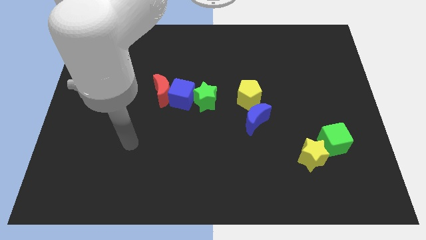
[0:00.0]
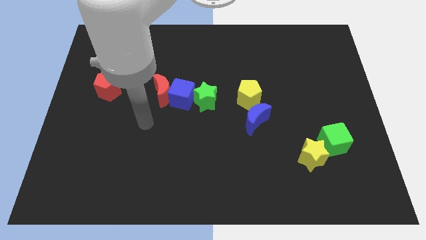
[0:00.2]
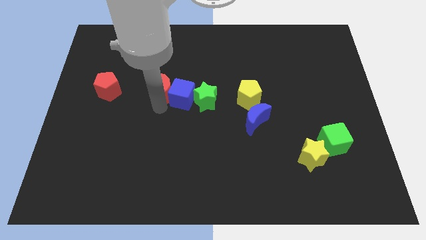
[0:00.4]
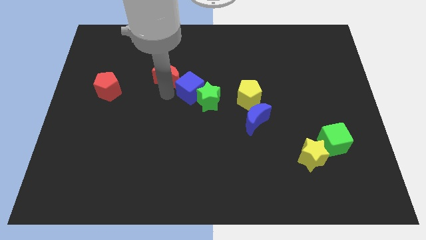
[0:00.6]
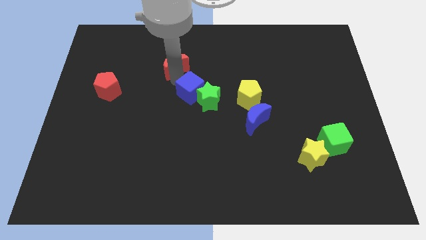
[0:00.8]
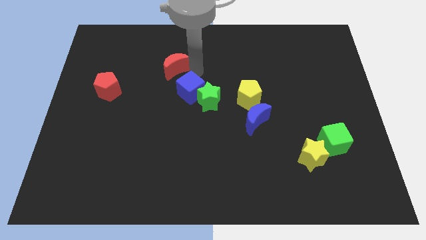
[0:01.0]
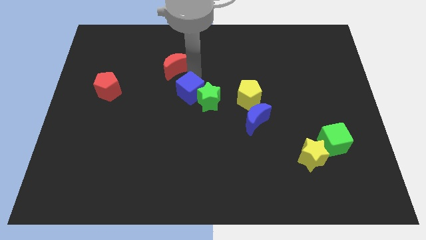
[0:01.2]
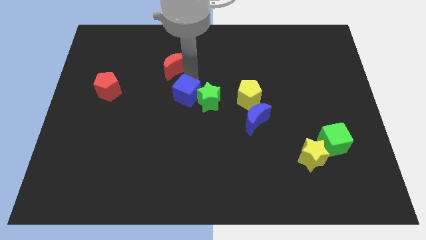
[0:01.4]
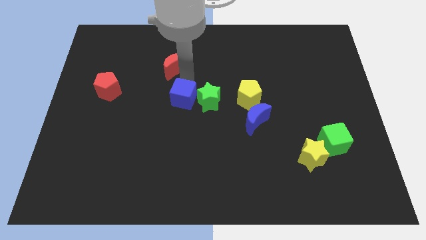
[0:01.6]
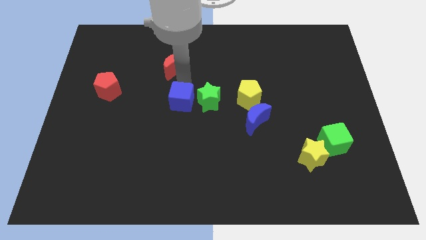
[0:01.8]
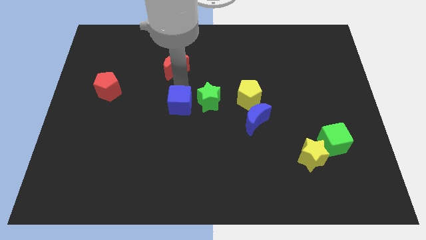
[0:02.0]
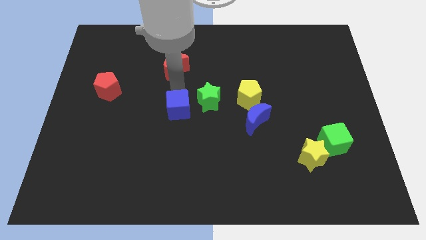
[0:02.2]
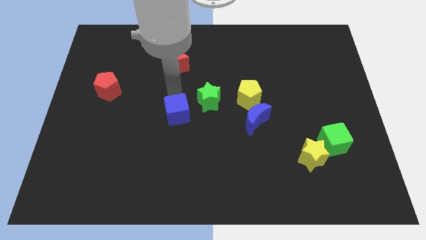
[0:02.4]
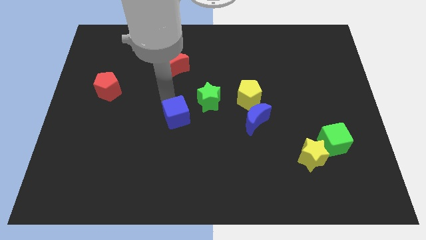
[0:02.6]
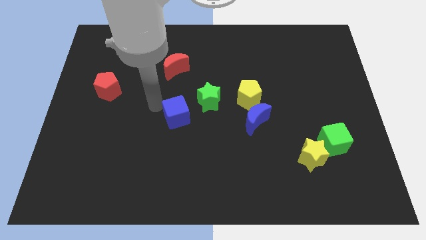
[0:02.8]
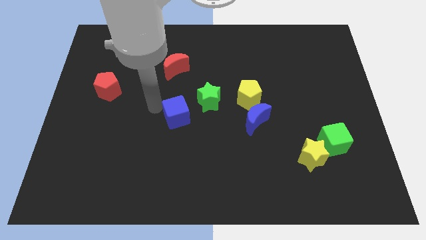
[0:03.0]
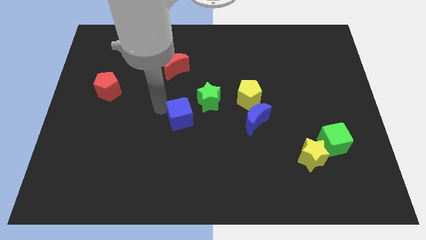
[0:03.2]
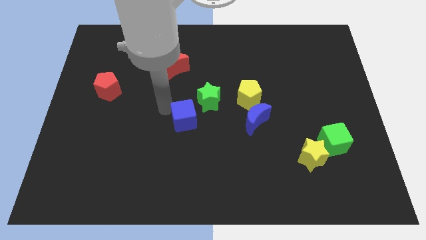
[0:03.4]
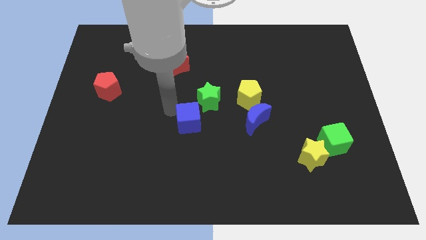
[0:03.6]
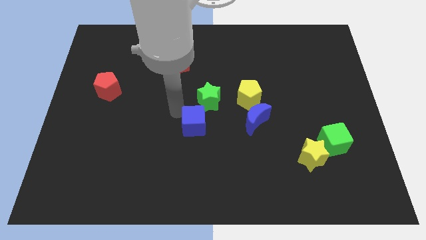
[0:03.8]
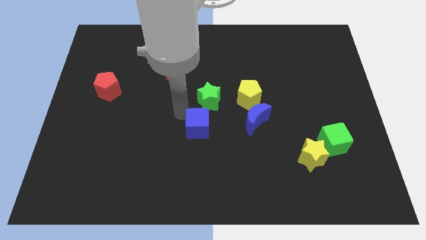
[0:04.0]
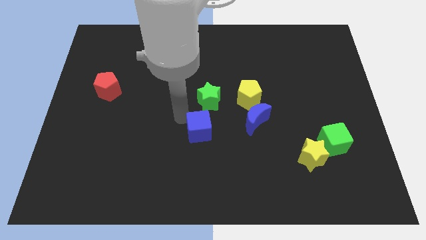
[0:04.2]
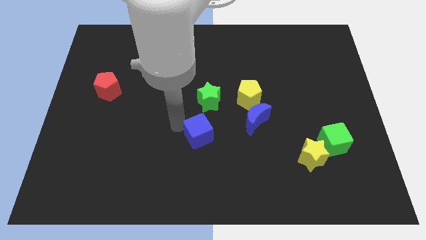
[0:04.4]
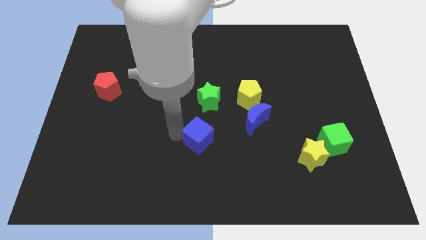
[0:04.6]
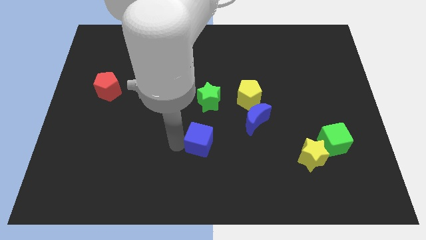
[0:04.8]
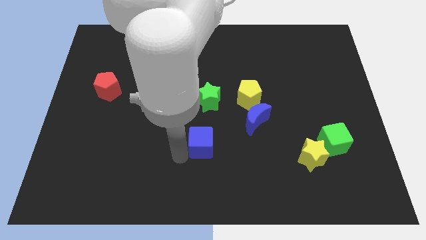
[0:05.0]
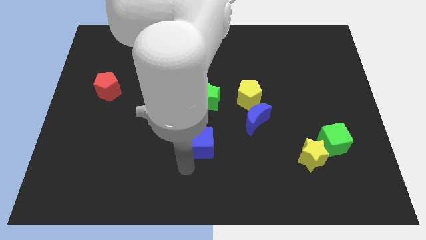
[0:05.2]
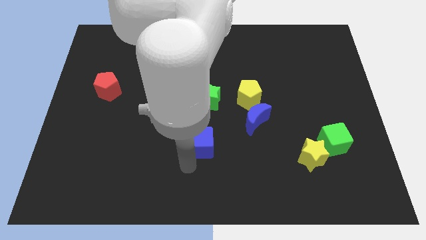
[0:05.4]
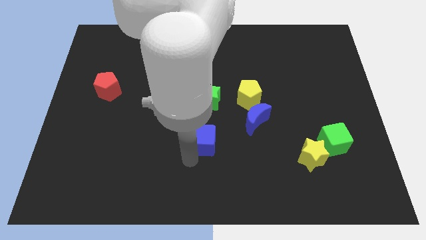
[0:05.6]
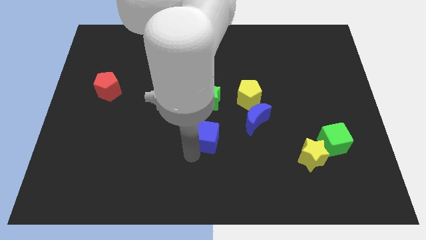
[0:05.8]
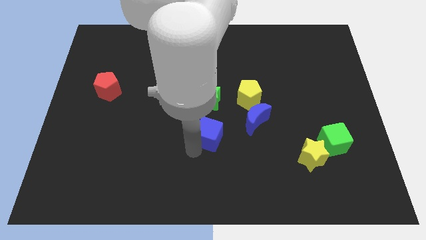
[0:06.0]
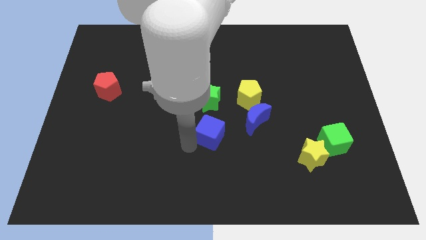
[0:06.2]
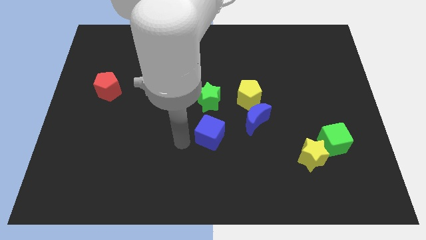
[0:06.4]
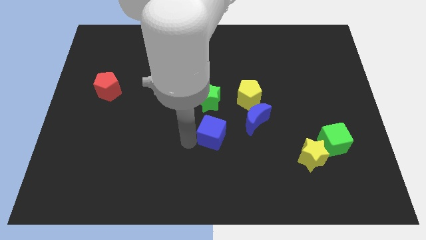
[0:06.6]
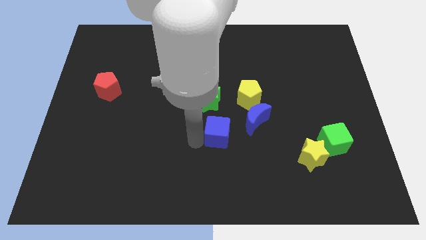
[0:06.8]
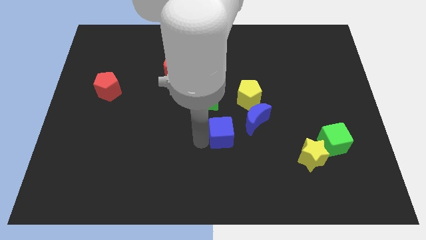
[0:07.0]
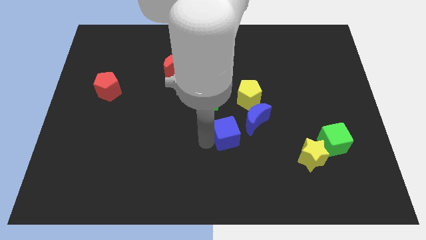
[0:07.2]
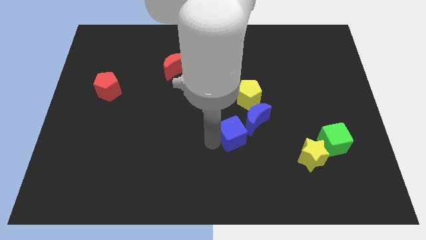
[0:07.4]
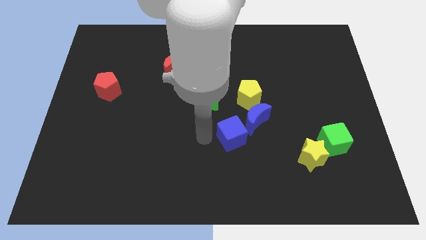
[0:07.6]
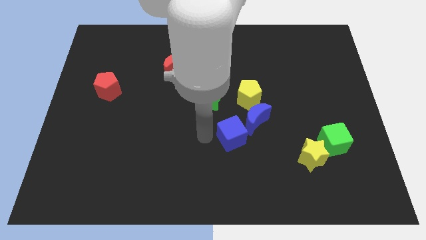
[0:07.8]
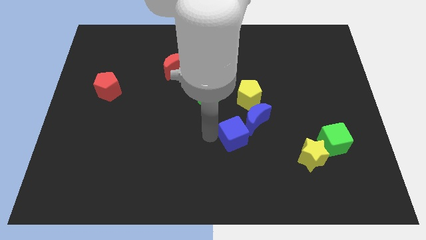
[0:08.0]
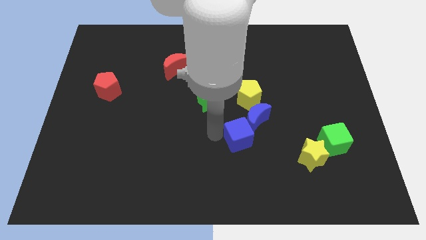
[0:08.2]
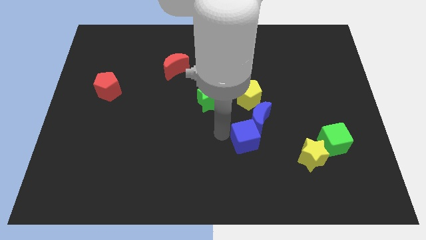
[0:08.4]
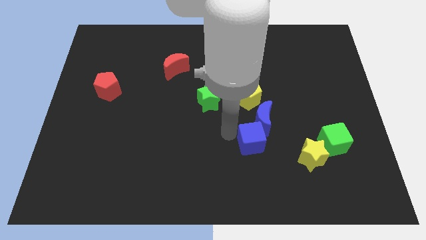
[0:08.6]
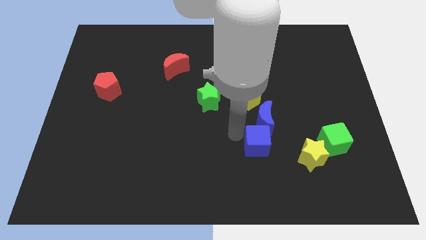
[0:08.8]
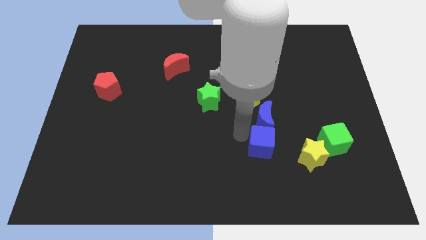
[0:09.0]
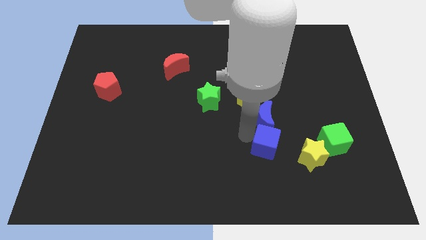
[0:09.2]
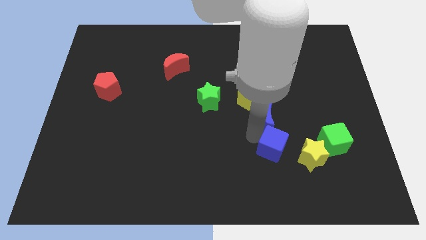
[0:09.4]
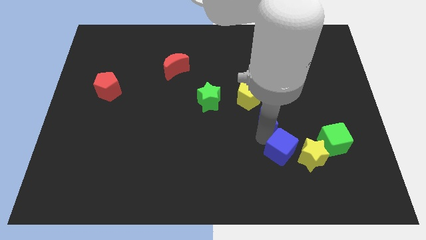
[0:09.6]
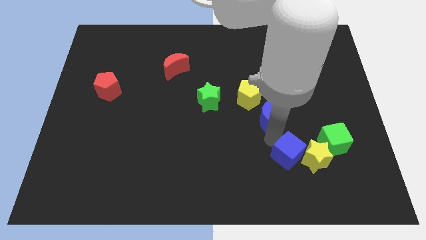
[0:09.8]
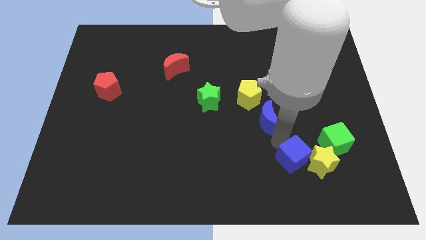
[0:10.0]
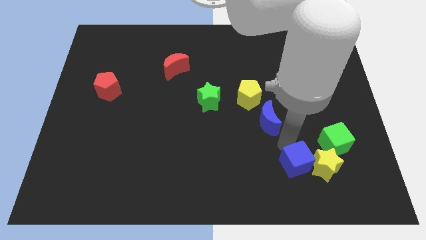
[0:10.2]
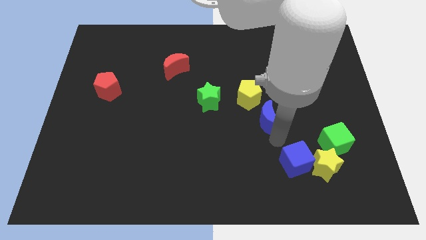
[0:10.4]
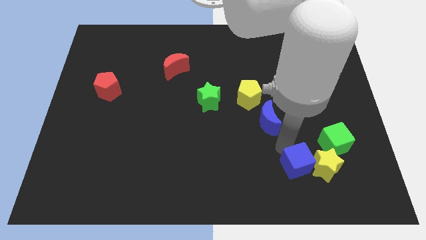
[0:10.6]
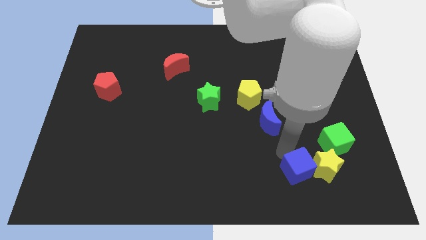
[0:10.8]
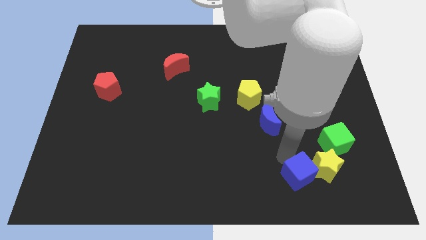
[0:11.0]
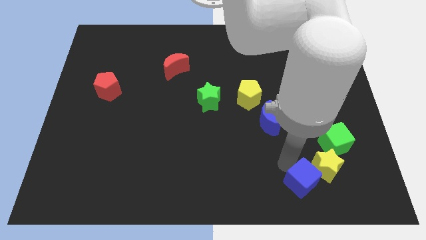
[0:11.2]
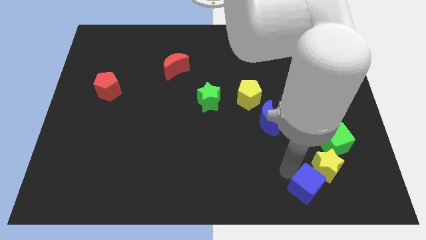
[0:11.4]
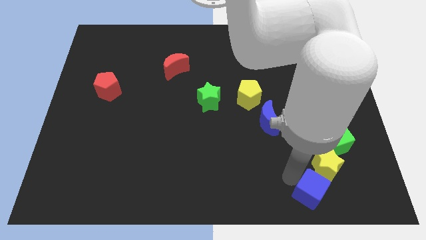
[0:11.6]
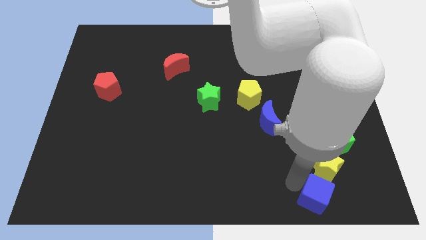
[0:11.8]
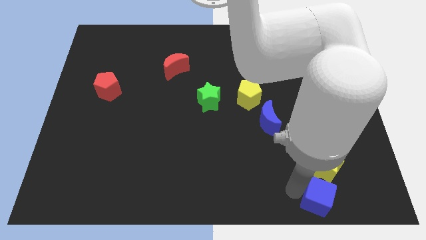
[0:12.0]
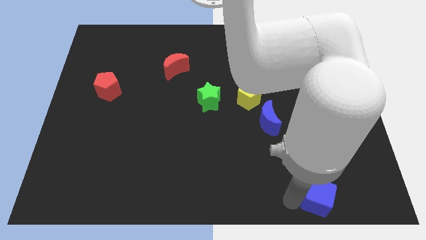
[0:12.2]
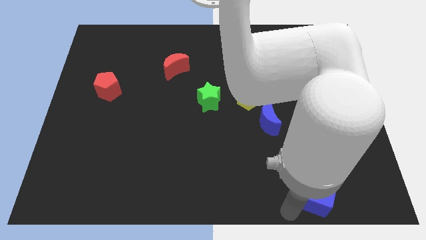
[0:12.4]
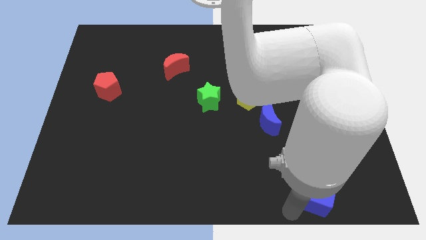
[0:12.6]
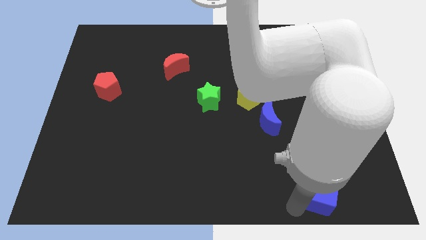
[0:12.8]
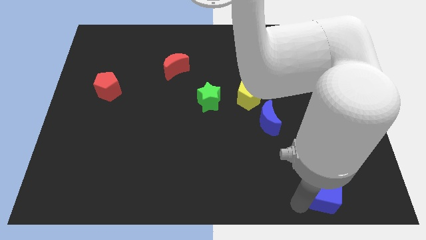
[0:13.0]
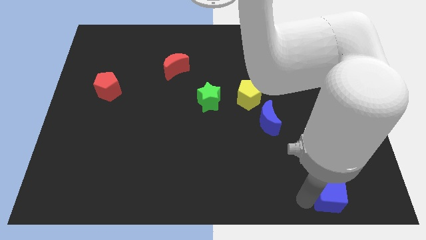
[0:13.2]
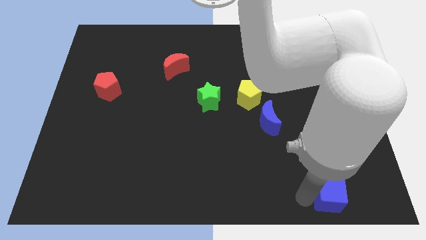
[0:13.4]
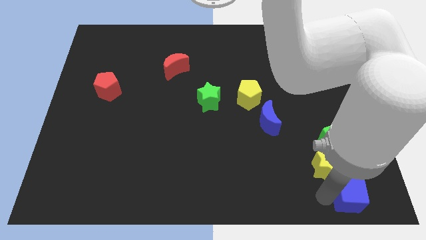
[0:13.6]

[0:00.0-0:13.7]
move the blue cube to the bottom right of the board

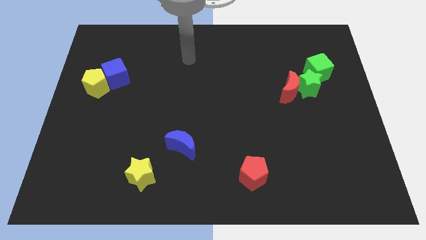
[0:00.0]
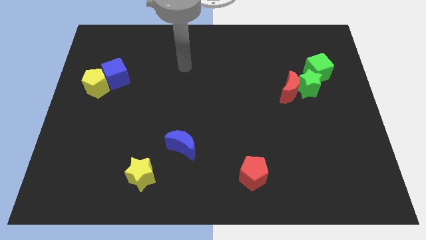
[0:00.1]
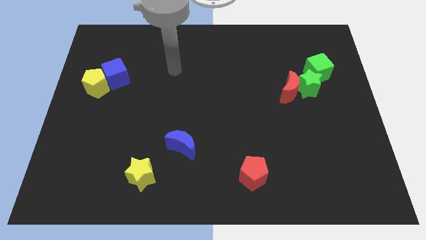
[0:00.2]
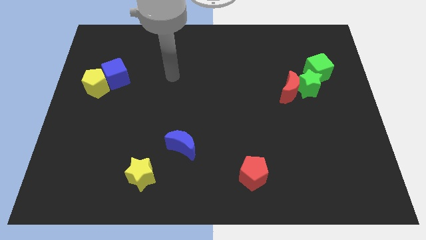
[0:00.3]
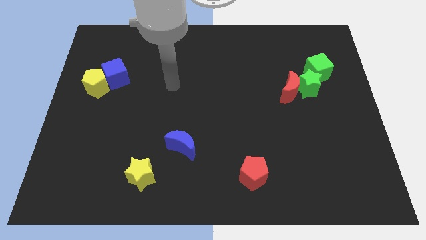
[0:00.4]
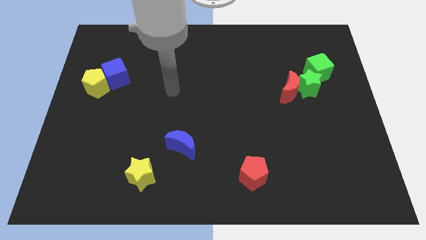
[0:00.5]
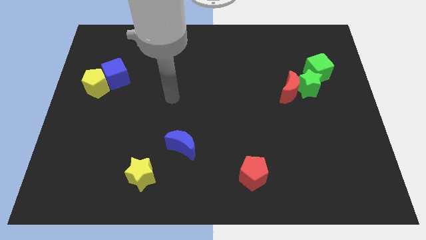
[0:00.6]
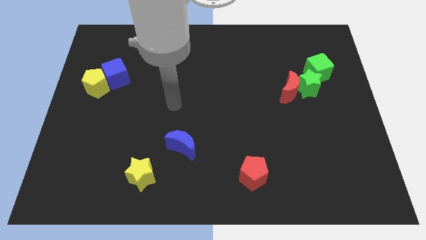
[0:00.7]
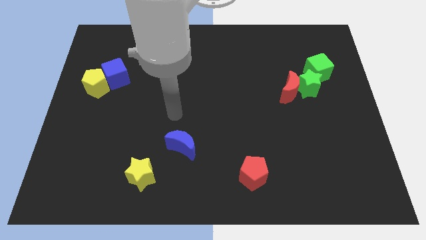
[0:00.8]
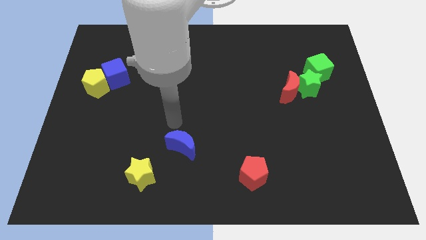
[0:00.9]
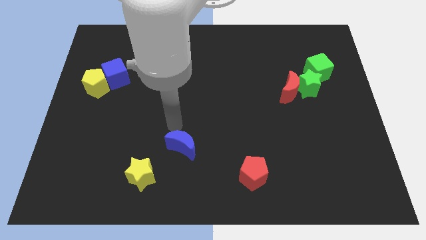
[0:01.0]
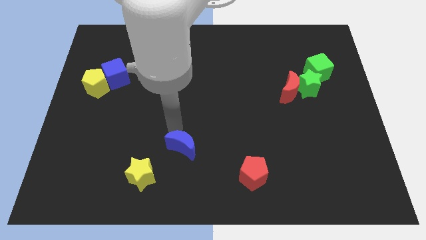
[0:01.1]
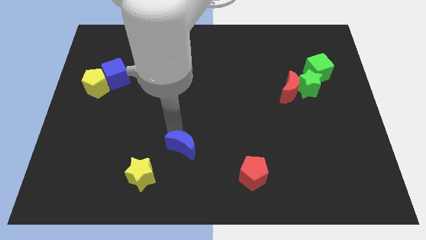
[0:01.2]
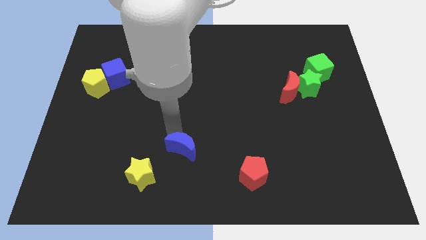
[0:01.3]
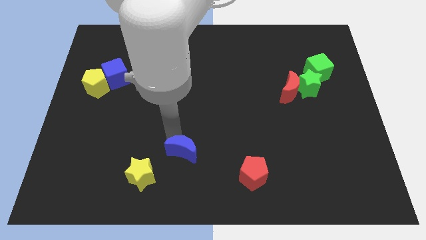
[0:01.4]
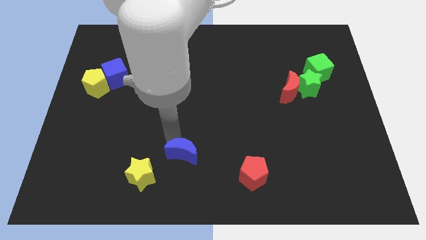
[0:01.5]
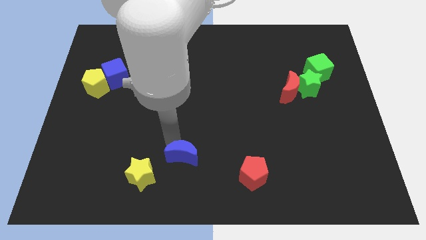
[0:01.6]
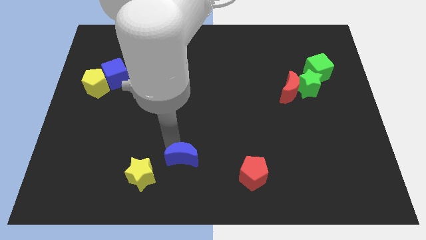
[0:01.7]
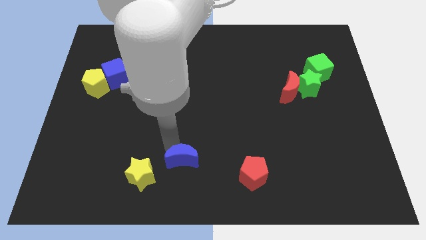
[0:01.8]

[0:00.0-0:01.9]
move the blue moon to the bottom side
